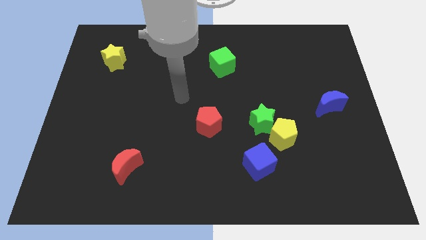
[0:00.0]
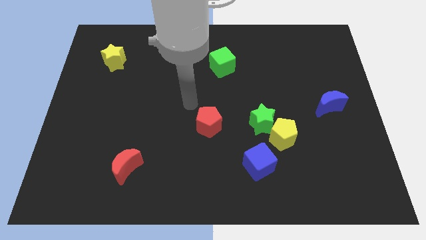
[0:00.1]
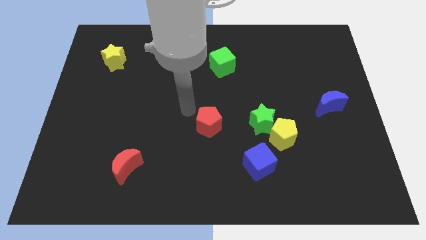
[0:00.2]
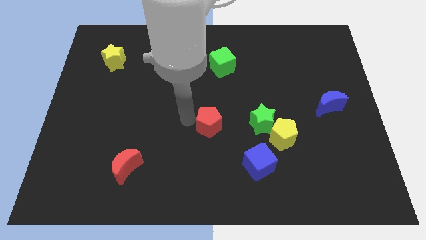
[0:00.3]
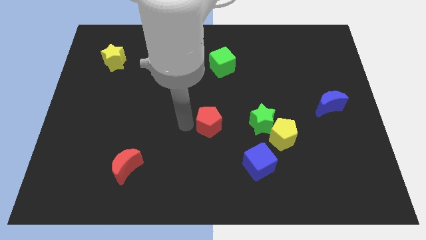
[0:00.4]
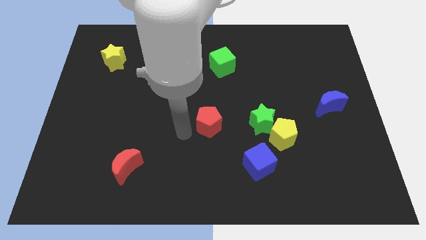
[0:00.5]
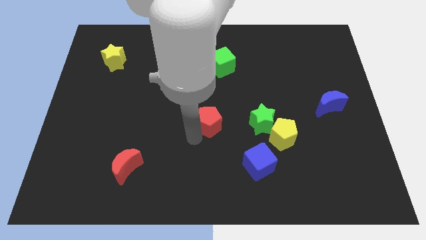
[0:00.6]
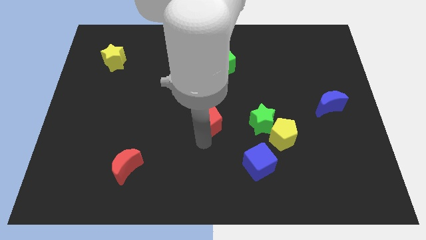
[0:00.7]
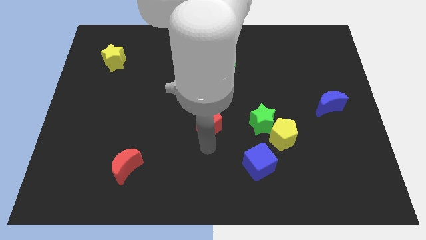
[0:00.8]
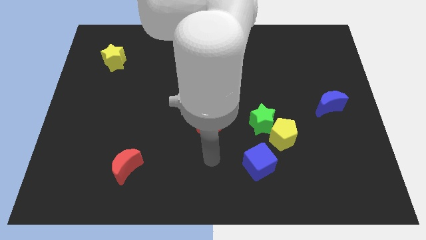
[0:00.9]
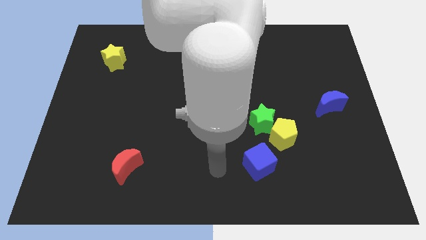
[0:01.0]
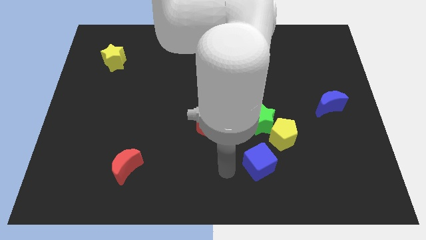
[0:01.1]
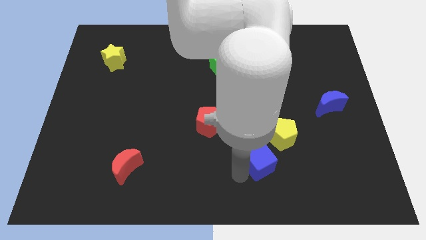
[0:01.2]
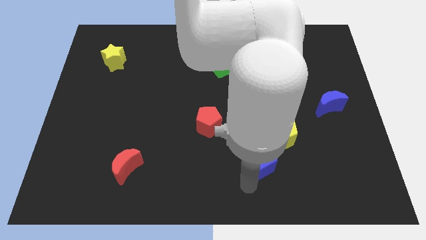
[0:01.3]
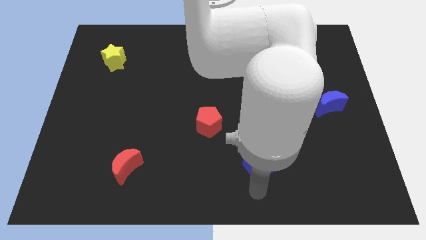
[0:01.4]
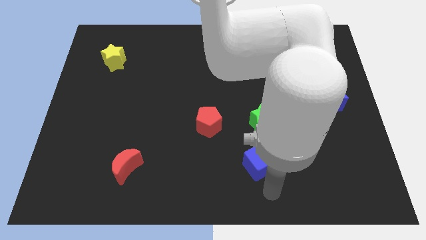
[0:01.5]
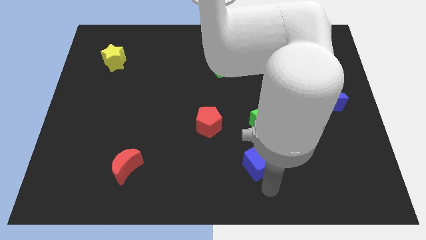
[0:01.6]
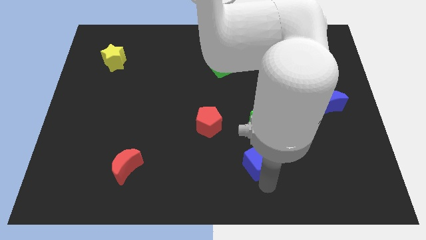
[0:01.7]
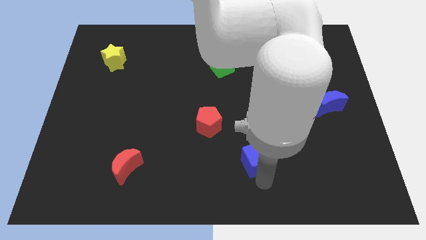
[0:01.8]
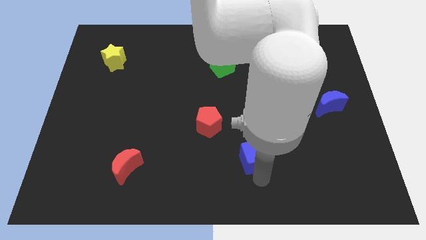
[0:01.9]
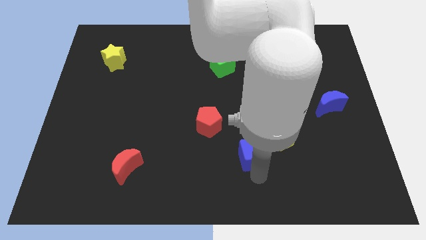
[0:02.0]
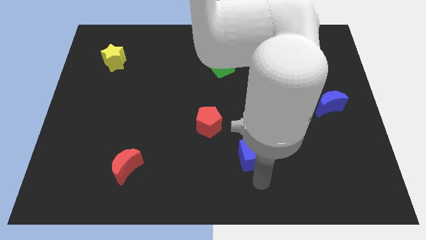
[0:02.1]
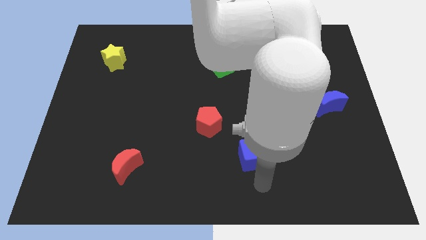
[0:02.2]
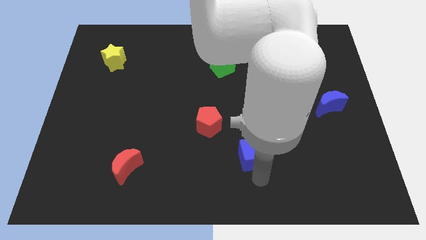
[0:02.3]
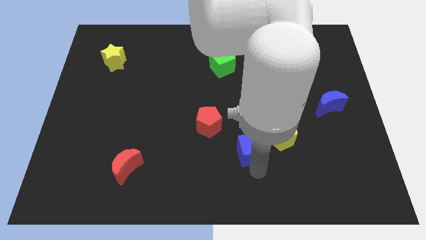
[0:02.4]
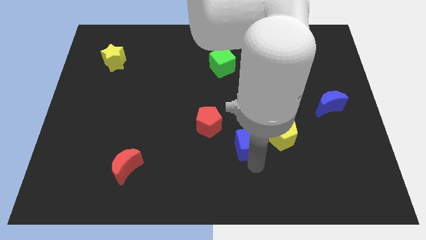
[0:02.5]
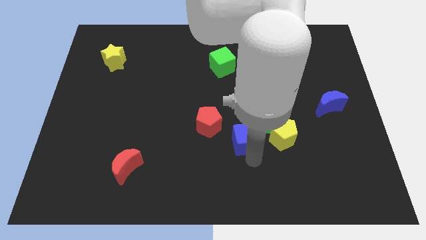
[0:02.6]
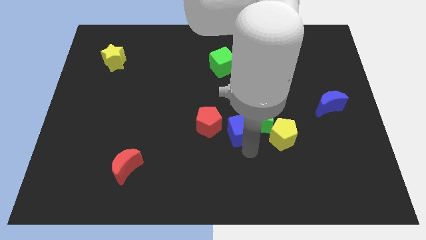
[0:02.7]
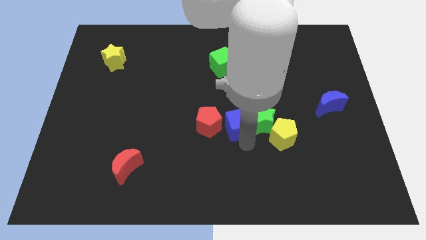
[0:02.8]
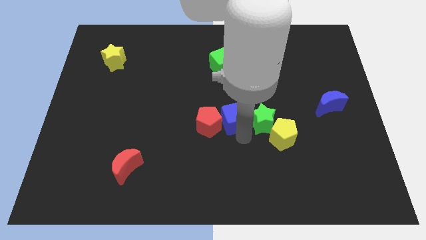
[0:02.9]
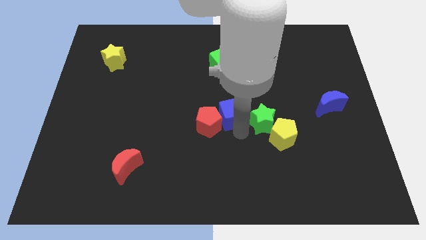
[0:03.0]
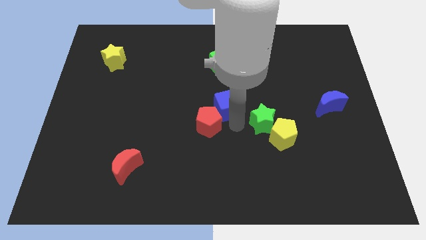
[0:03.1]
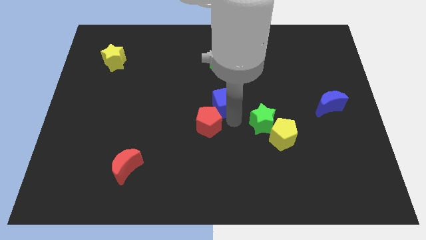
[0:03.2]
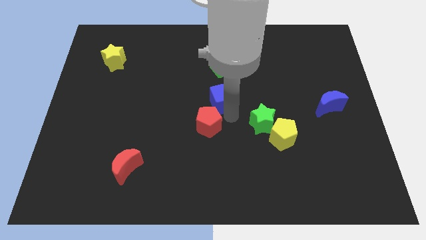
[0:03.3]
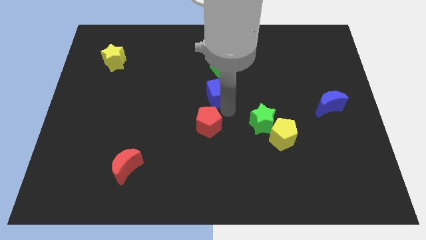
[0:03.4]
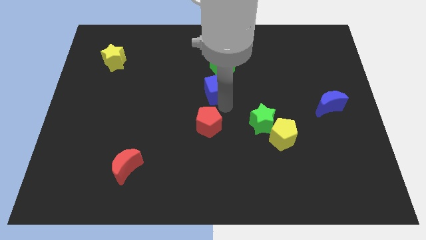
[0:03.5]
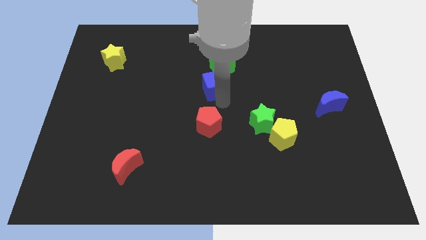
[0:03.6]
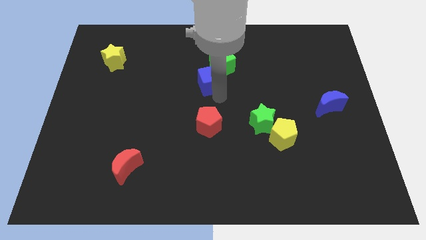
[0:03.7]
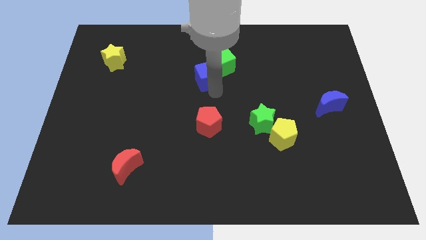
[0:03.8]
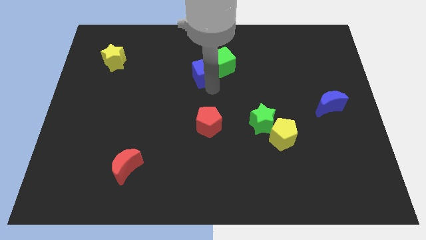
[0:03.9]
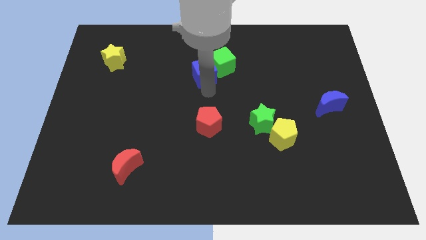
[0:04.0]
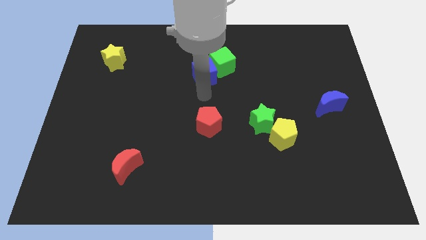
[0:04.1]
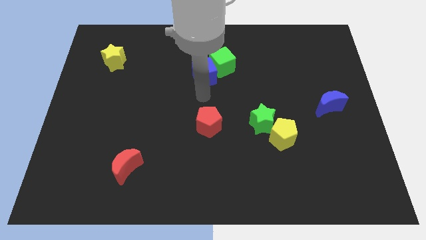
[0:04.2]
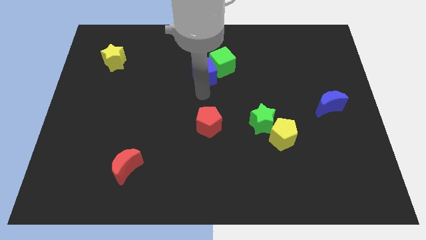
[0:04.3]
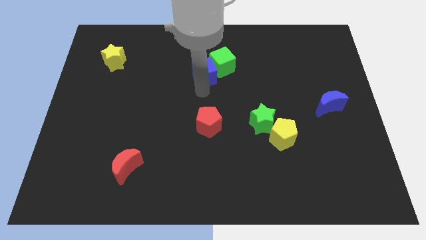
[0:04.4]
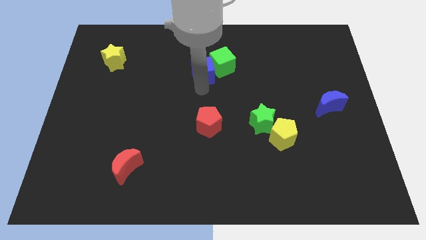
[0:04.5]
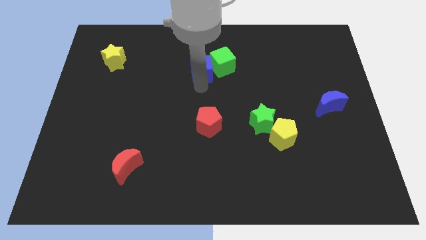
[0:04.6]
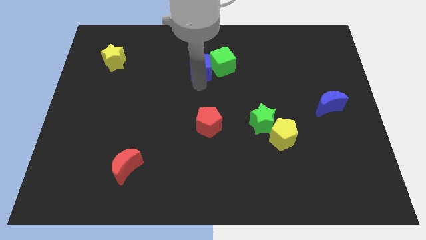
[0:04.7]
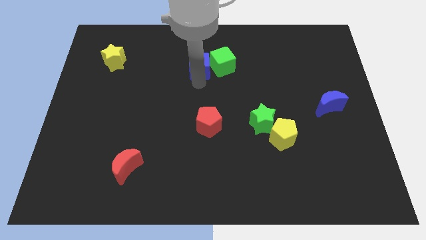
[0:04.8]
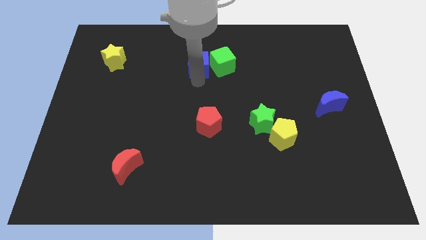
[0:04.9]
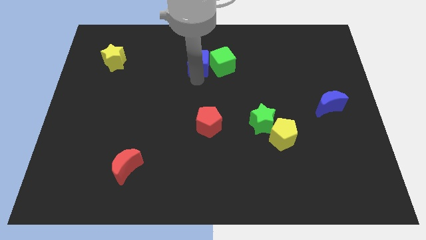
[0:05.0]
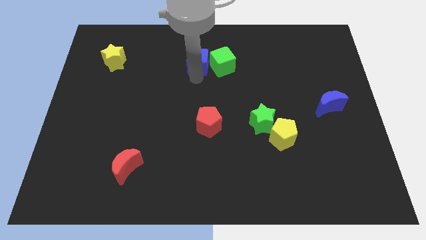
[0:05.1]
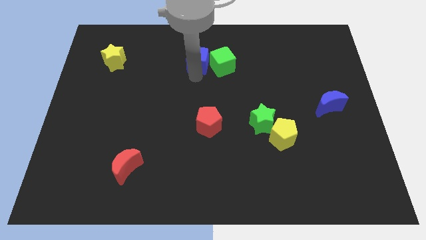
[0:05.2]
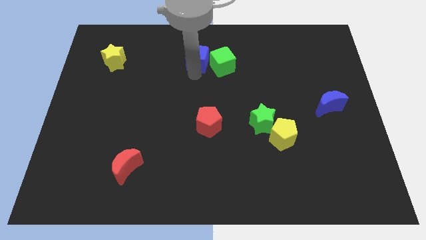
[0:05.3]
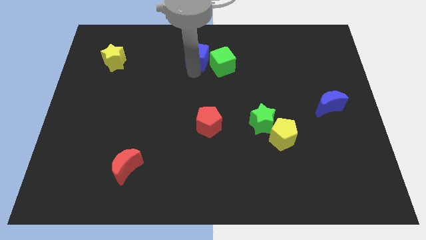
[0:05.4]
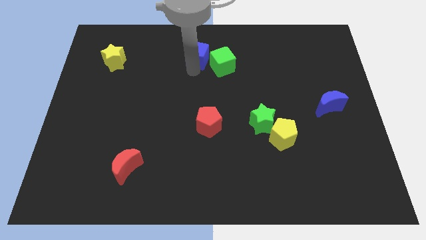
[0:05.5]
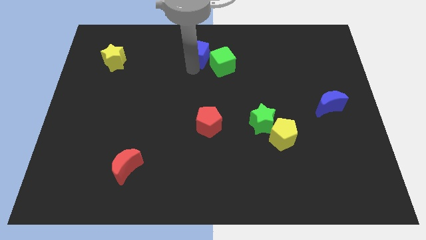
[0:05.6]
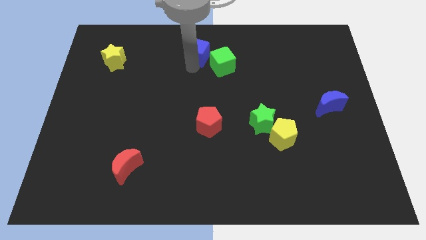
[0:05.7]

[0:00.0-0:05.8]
put the blue cube to the towards your base

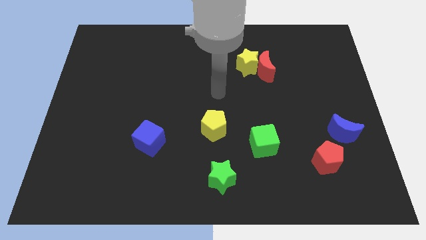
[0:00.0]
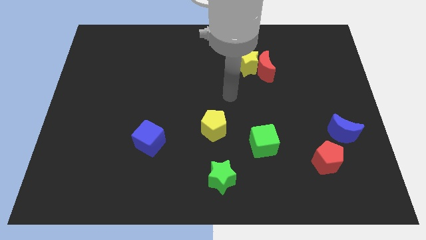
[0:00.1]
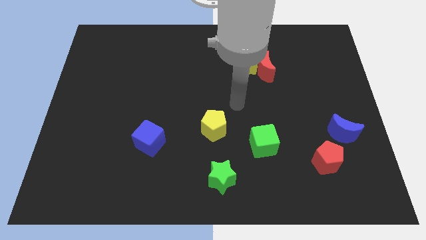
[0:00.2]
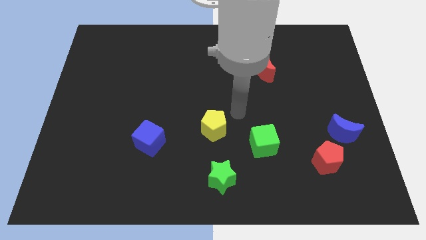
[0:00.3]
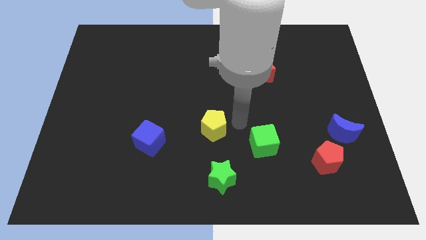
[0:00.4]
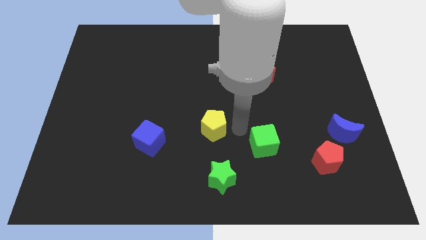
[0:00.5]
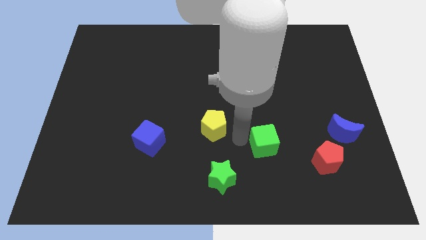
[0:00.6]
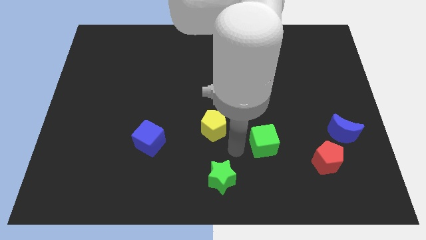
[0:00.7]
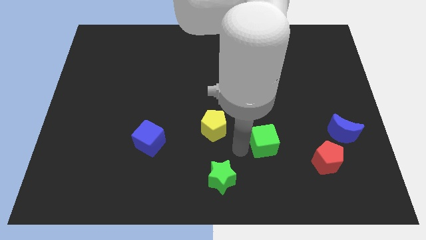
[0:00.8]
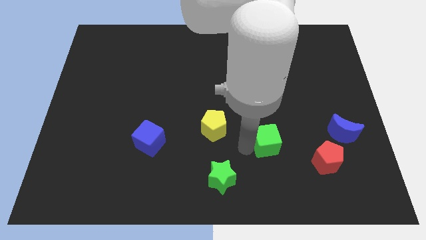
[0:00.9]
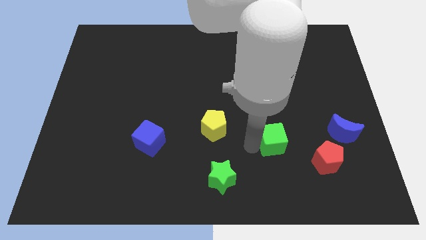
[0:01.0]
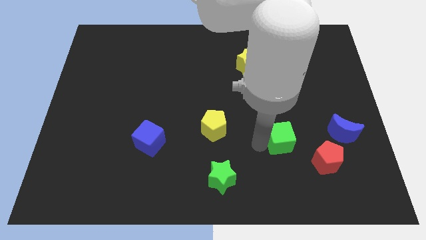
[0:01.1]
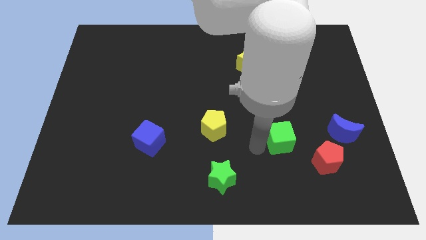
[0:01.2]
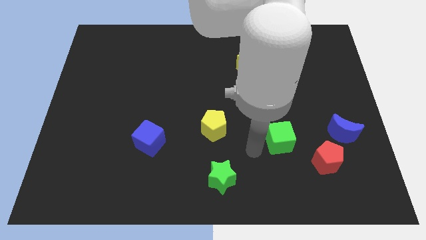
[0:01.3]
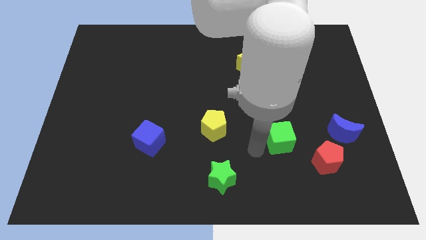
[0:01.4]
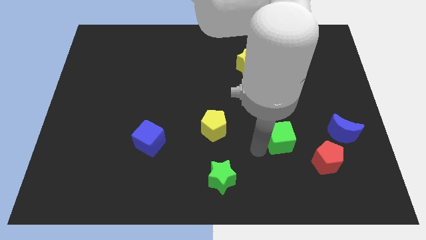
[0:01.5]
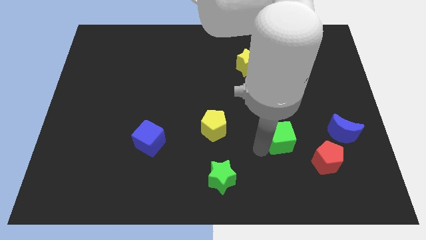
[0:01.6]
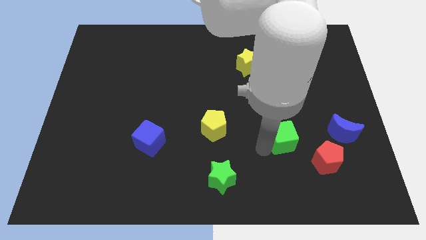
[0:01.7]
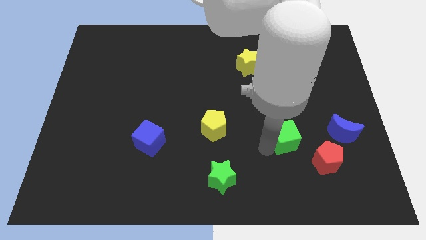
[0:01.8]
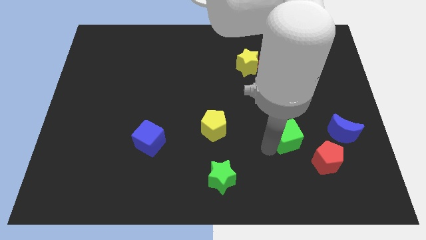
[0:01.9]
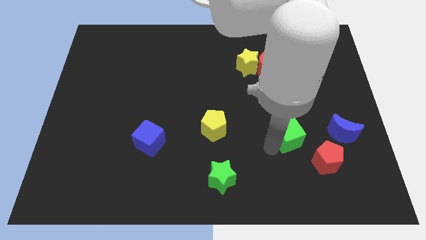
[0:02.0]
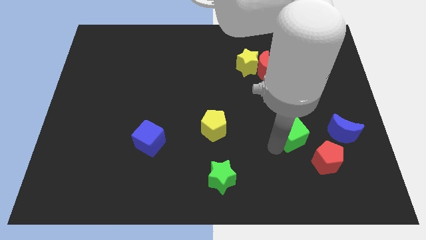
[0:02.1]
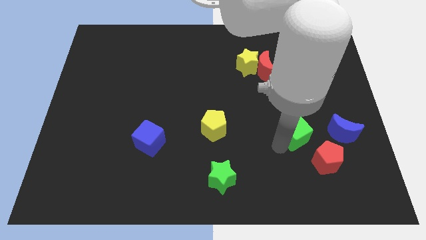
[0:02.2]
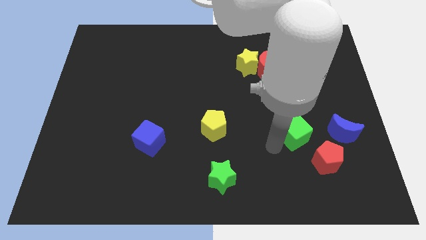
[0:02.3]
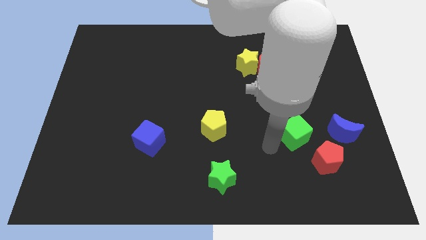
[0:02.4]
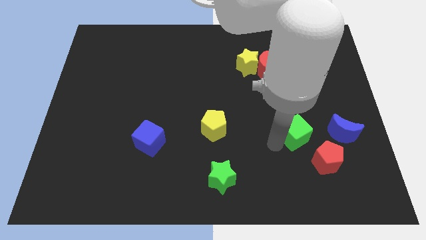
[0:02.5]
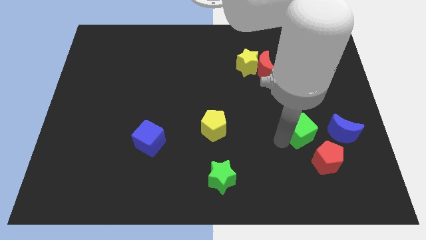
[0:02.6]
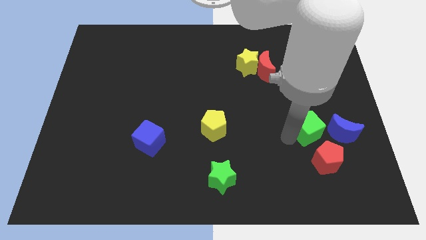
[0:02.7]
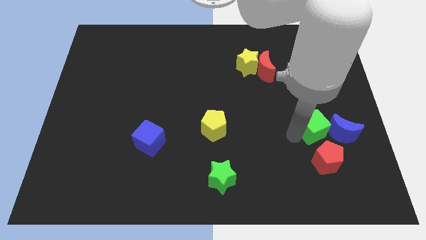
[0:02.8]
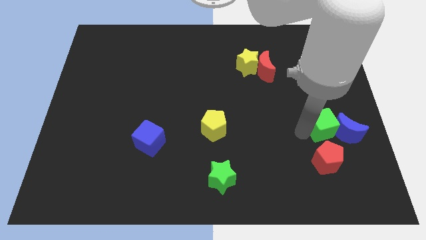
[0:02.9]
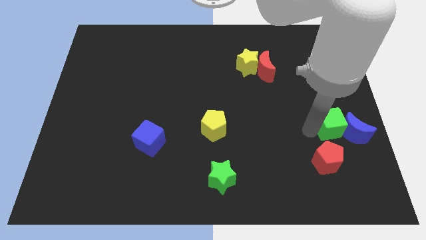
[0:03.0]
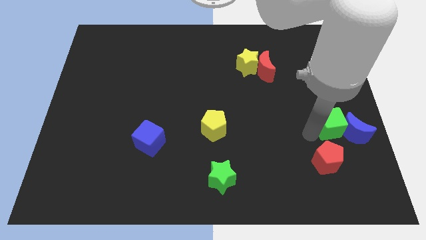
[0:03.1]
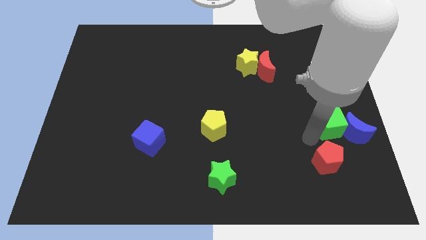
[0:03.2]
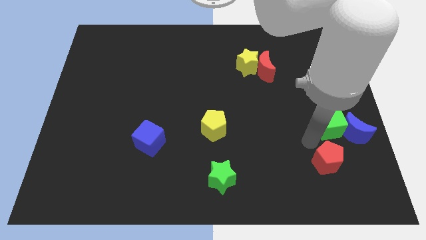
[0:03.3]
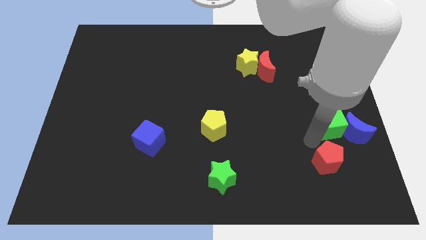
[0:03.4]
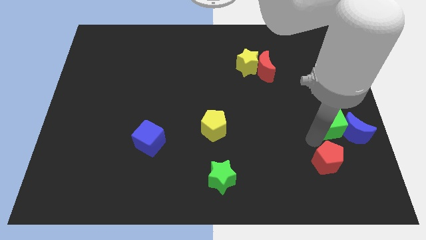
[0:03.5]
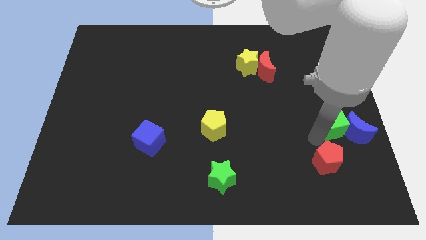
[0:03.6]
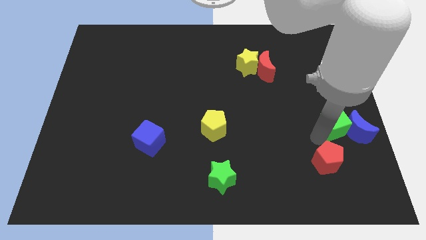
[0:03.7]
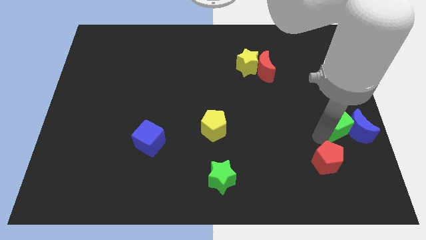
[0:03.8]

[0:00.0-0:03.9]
slide the green cube to the right side
